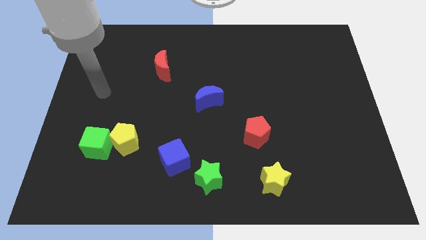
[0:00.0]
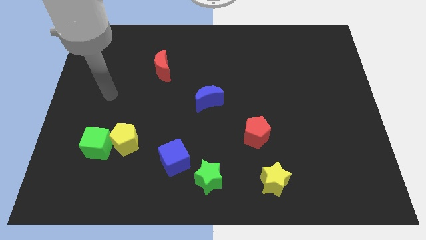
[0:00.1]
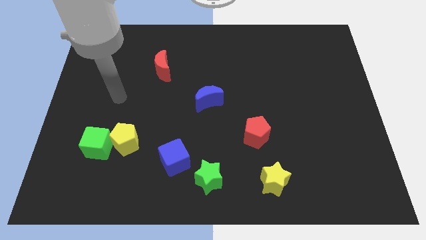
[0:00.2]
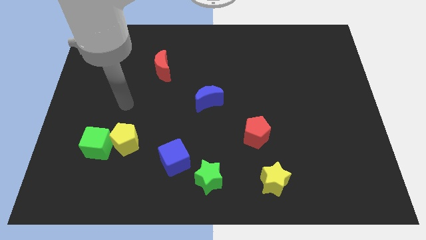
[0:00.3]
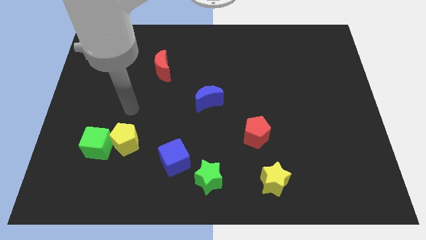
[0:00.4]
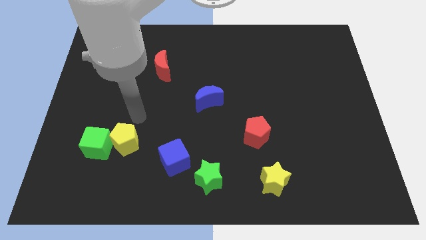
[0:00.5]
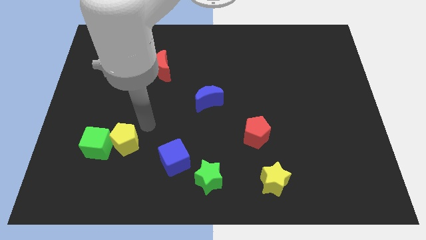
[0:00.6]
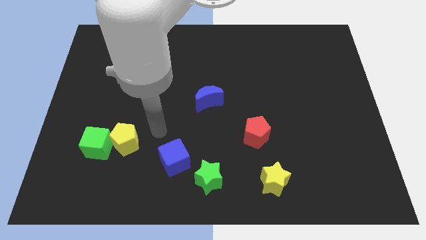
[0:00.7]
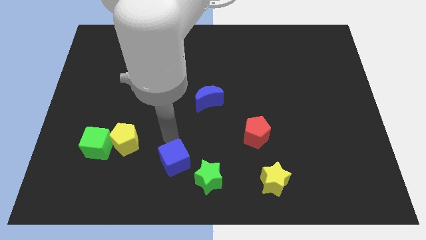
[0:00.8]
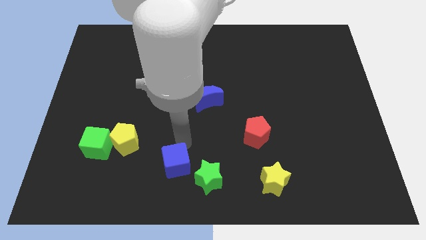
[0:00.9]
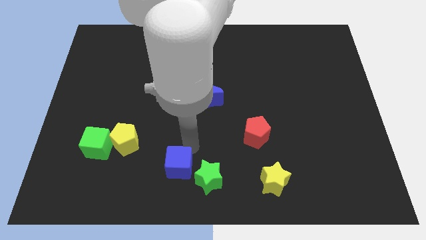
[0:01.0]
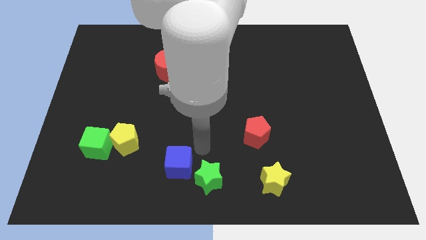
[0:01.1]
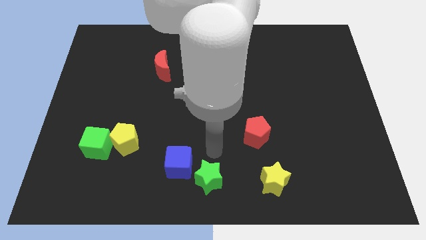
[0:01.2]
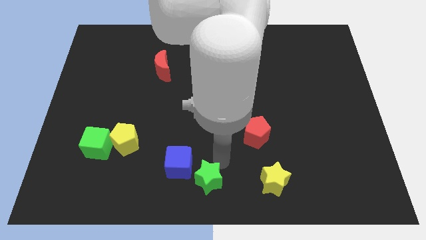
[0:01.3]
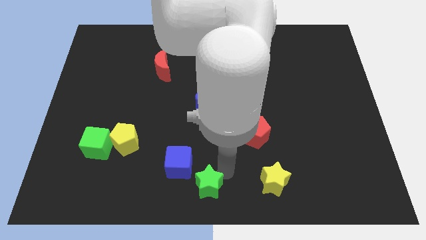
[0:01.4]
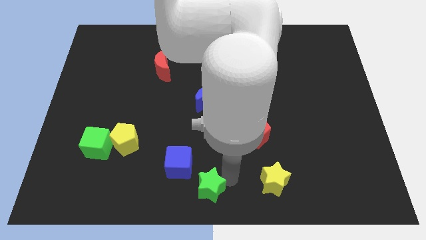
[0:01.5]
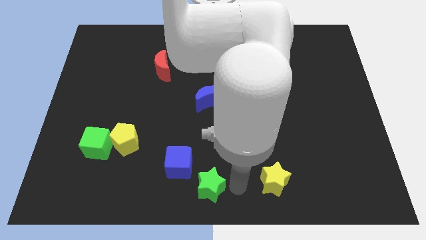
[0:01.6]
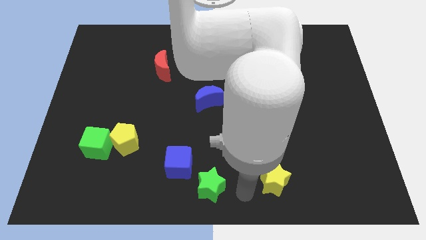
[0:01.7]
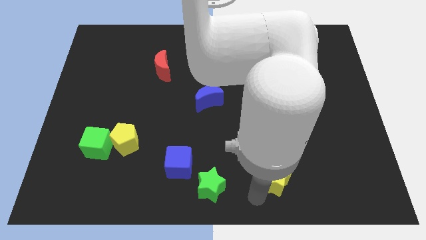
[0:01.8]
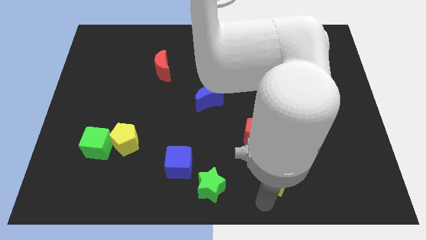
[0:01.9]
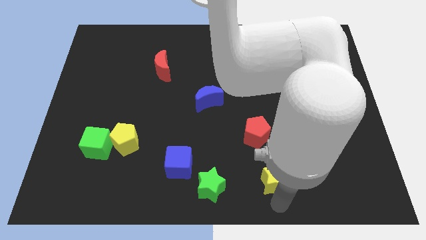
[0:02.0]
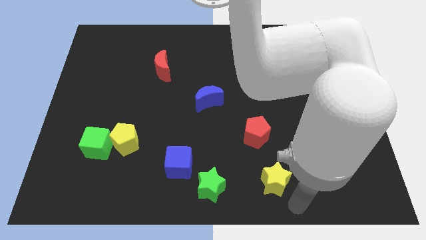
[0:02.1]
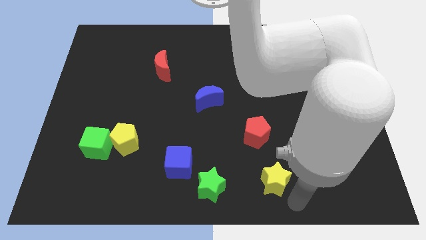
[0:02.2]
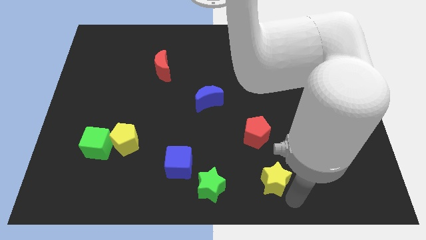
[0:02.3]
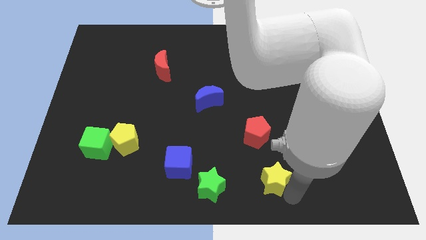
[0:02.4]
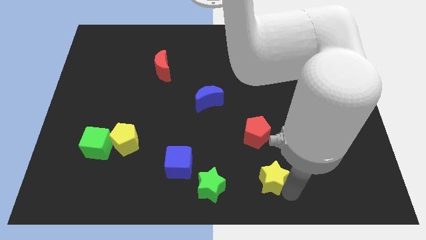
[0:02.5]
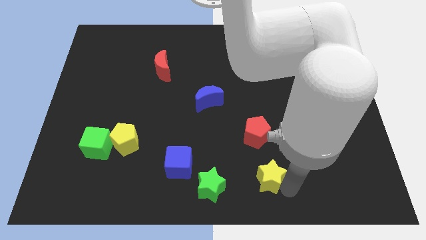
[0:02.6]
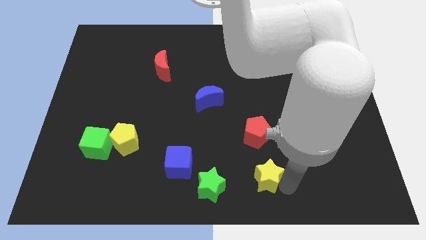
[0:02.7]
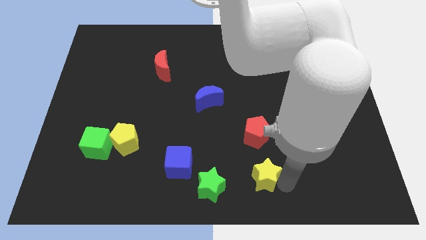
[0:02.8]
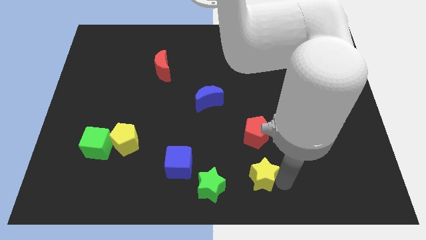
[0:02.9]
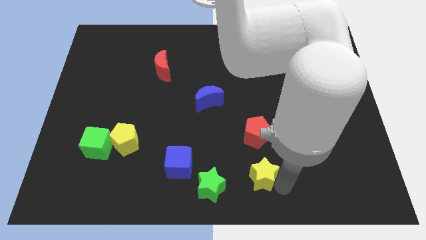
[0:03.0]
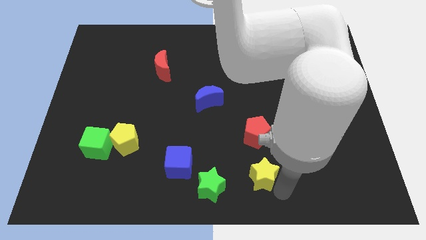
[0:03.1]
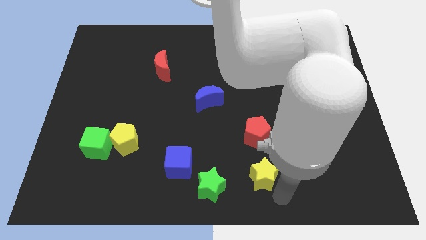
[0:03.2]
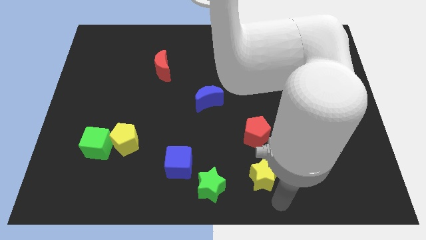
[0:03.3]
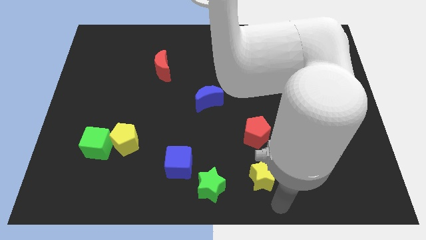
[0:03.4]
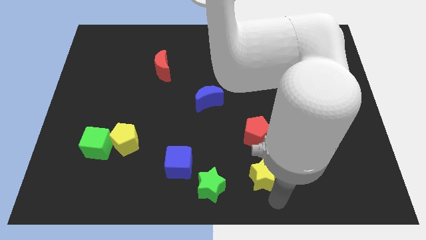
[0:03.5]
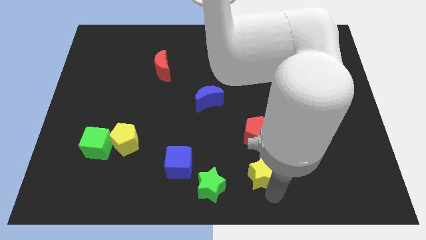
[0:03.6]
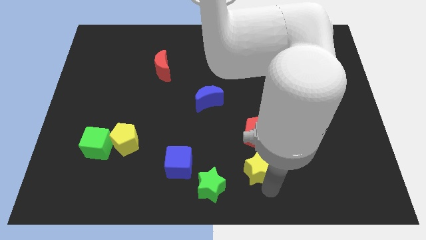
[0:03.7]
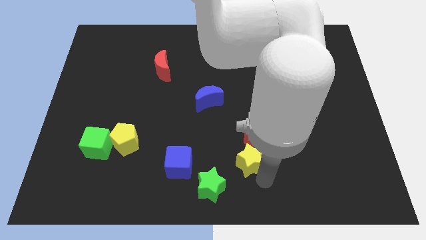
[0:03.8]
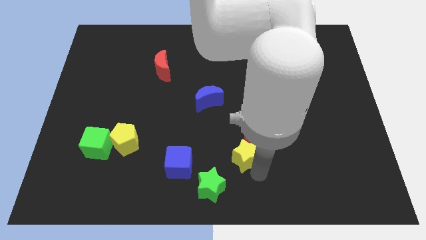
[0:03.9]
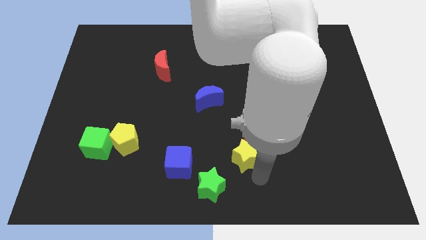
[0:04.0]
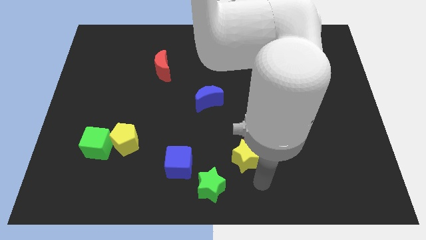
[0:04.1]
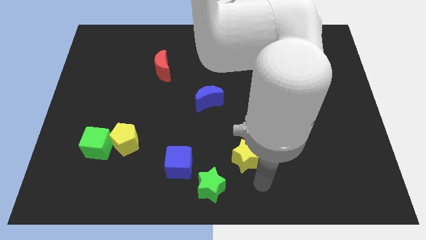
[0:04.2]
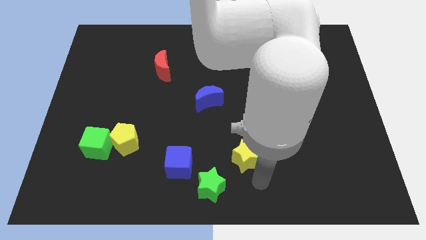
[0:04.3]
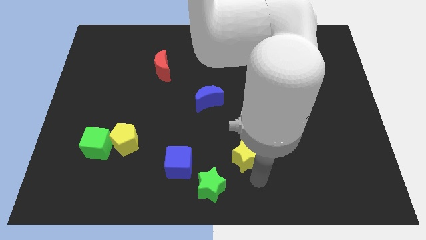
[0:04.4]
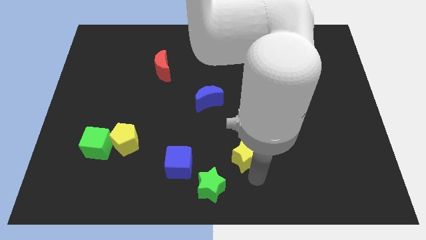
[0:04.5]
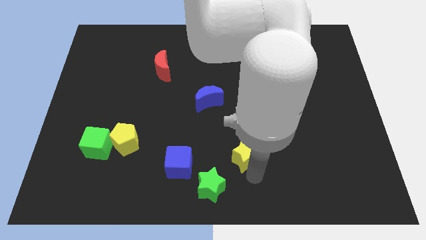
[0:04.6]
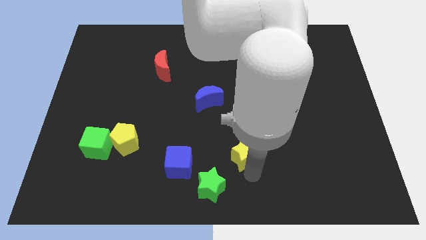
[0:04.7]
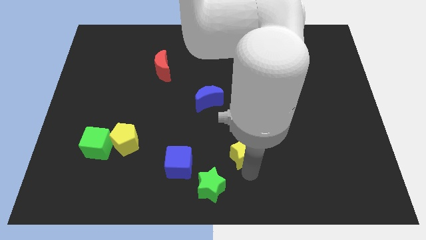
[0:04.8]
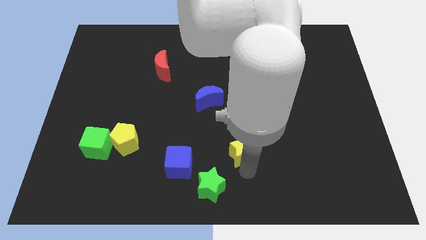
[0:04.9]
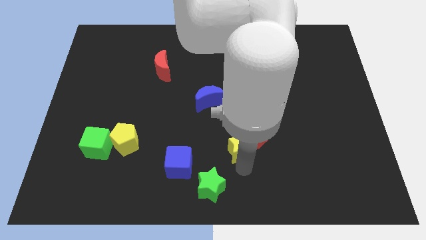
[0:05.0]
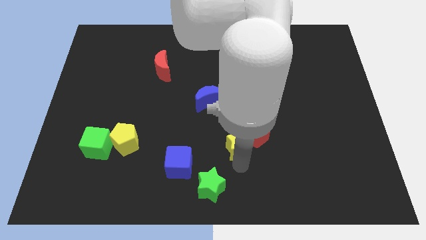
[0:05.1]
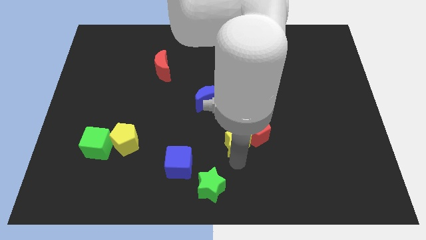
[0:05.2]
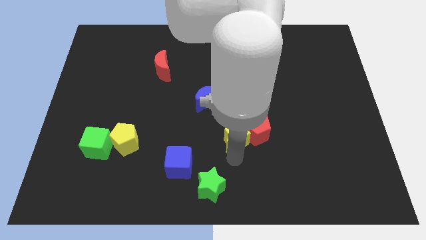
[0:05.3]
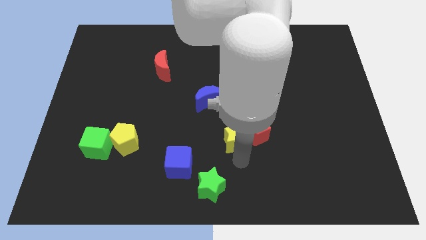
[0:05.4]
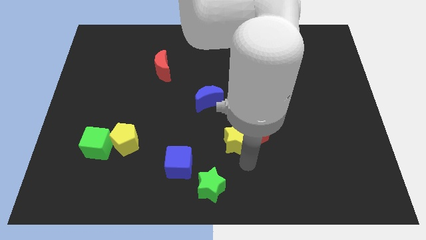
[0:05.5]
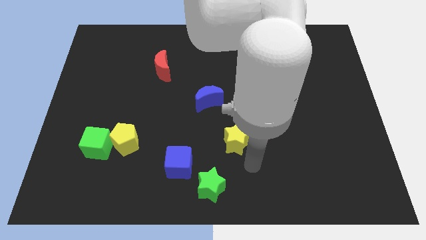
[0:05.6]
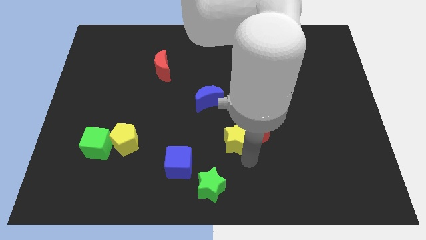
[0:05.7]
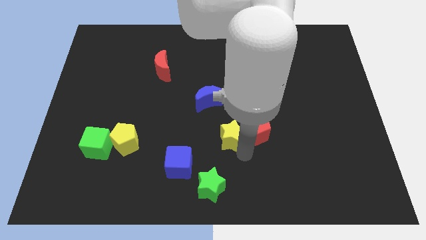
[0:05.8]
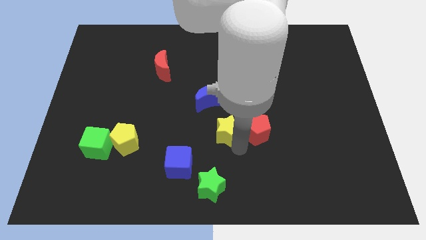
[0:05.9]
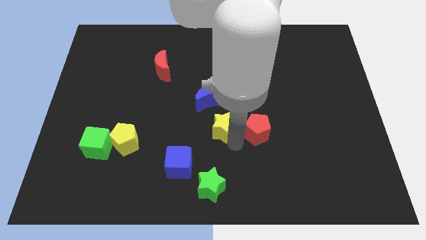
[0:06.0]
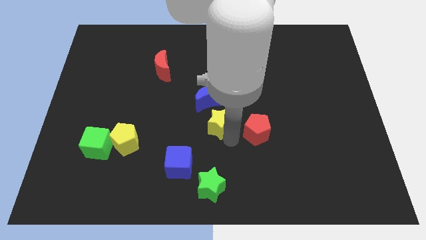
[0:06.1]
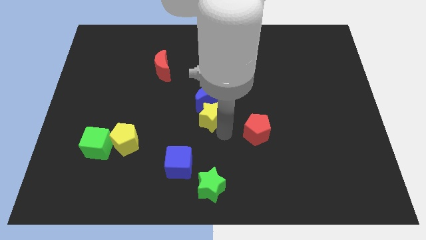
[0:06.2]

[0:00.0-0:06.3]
push the yellow star next to the blue moon

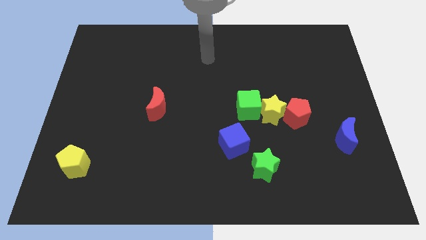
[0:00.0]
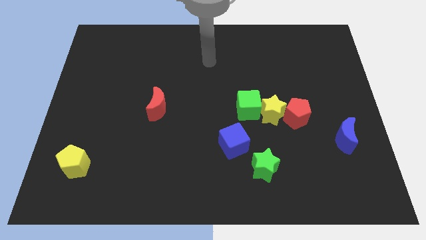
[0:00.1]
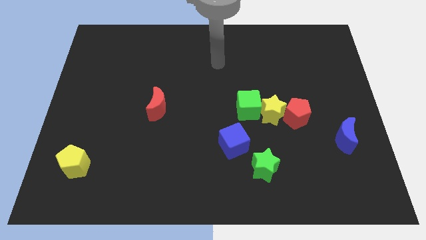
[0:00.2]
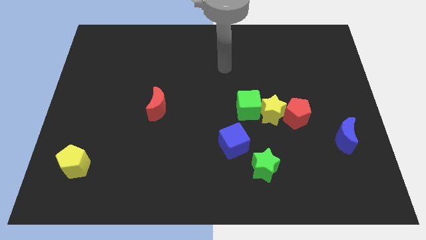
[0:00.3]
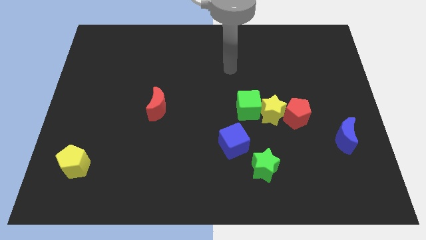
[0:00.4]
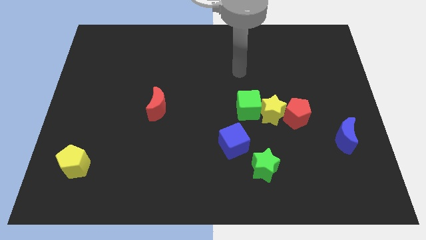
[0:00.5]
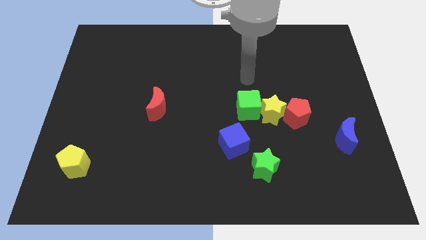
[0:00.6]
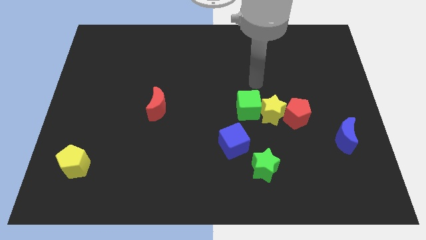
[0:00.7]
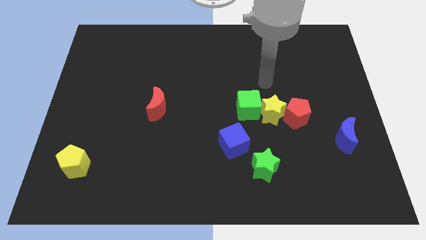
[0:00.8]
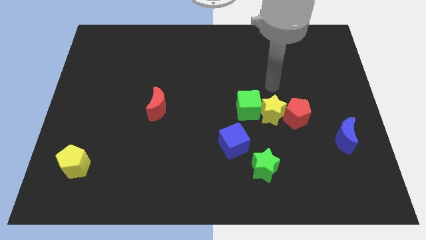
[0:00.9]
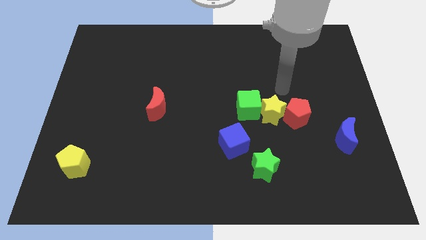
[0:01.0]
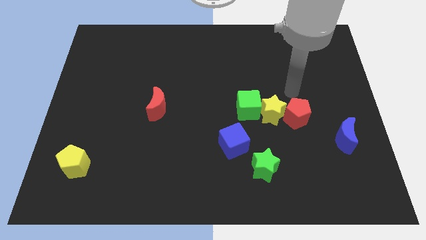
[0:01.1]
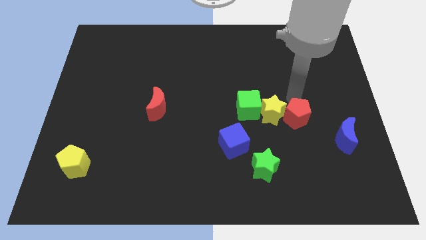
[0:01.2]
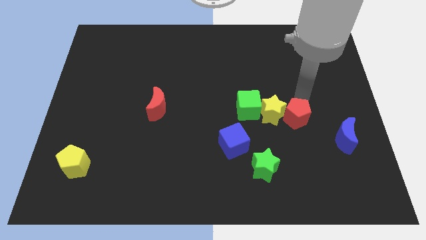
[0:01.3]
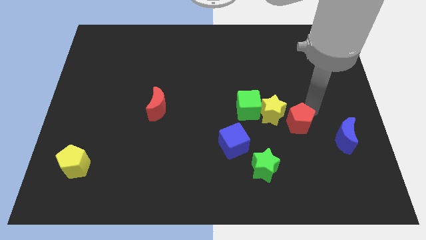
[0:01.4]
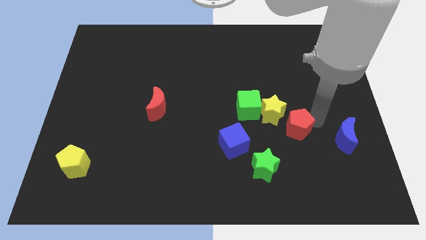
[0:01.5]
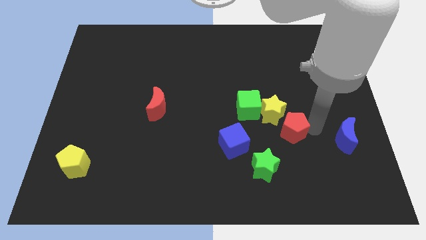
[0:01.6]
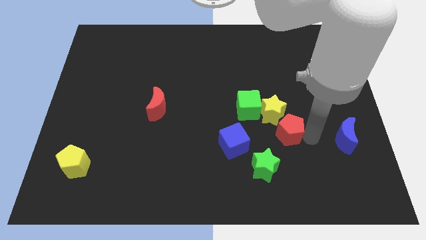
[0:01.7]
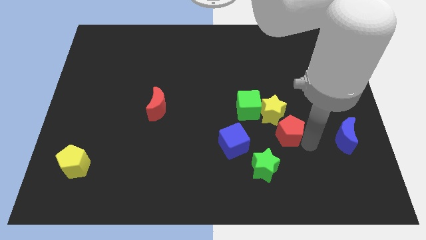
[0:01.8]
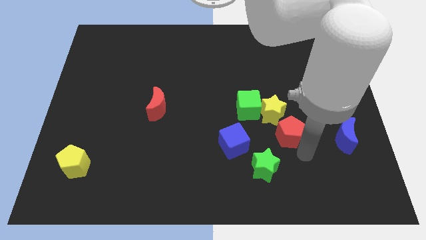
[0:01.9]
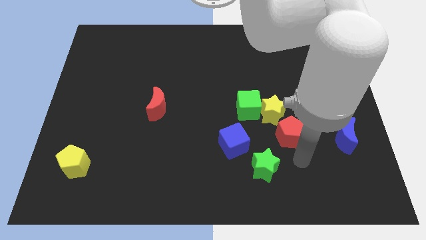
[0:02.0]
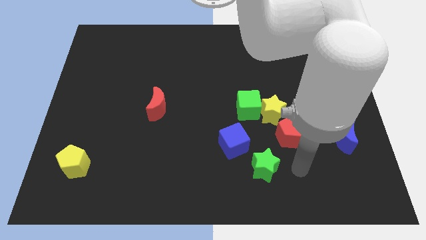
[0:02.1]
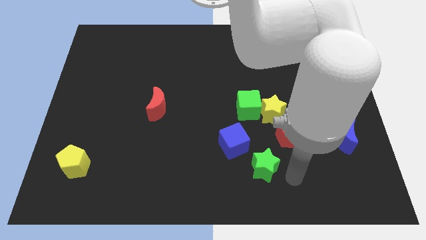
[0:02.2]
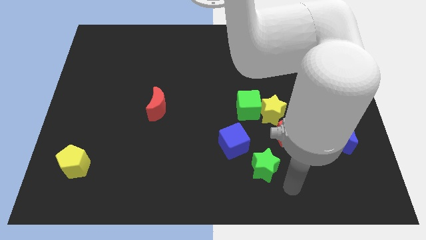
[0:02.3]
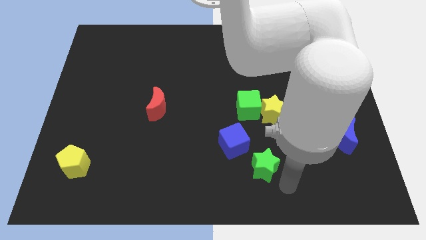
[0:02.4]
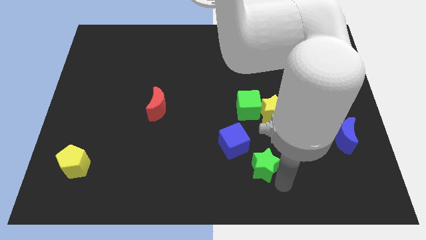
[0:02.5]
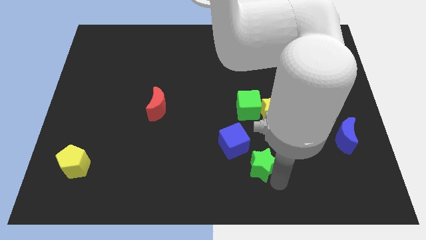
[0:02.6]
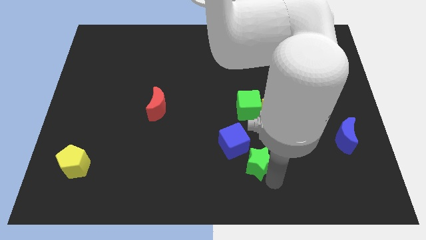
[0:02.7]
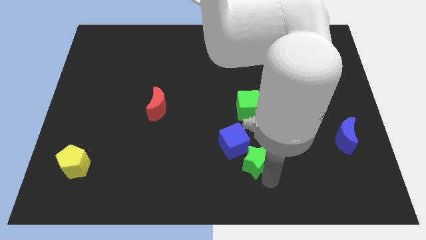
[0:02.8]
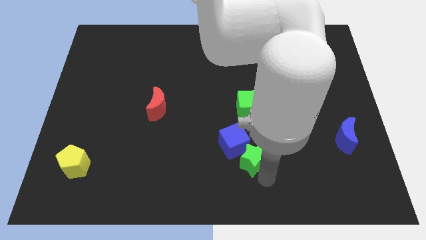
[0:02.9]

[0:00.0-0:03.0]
slide the green star to the blue cube
